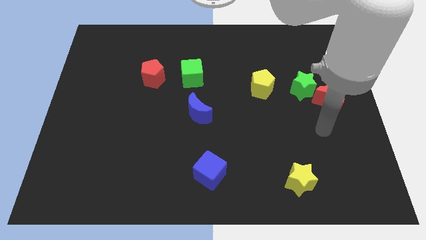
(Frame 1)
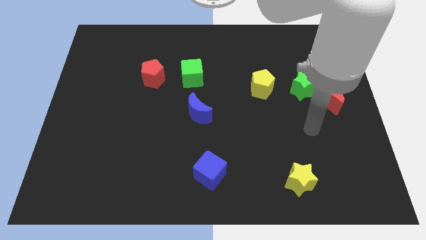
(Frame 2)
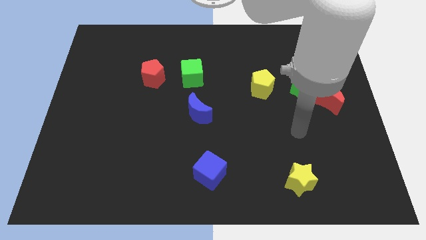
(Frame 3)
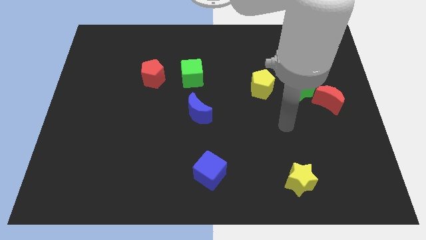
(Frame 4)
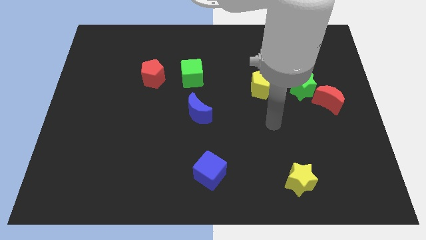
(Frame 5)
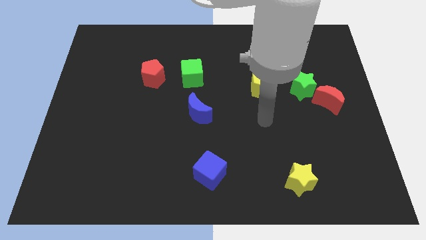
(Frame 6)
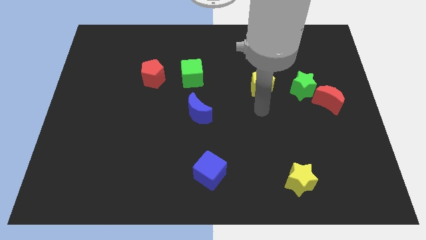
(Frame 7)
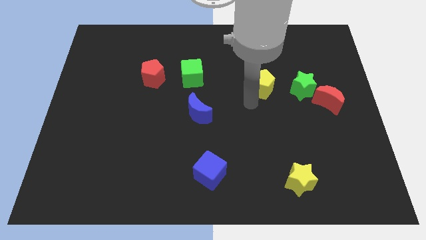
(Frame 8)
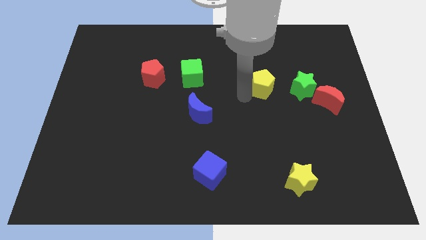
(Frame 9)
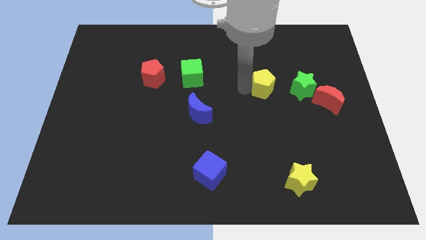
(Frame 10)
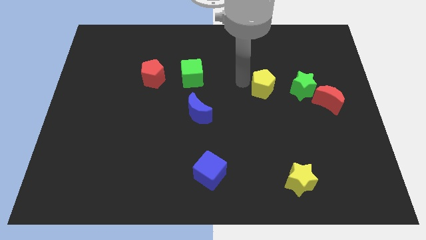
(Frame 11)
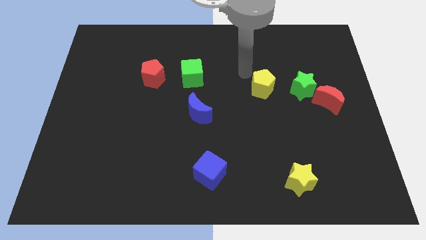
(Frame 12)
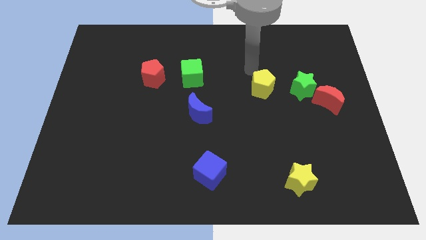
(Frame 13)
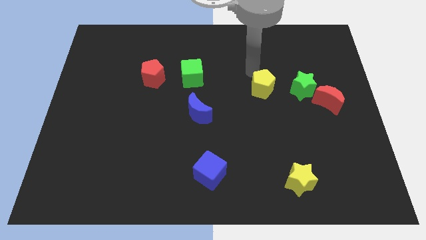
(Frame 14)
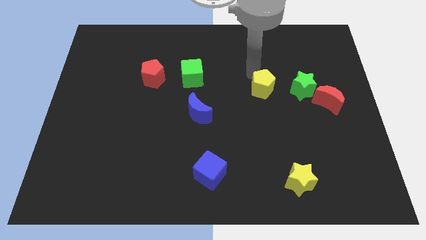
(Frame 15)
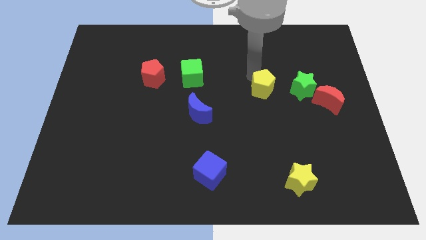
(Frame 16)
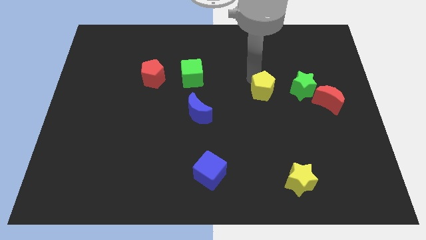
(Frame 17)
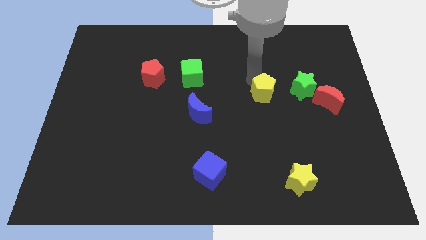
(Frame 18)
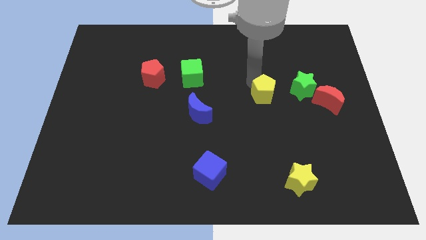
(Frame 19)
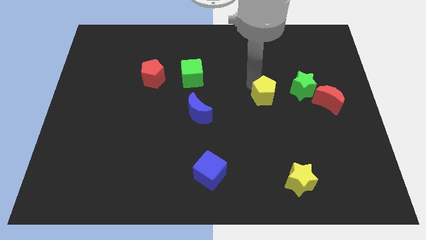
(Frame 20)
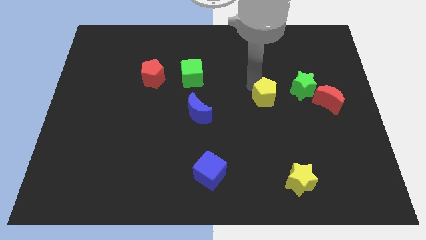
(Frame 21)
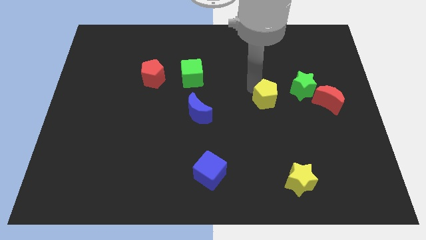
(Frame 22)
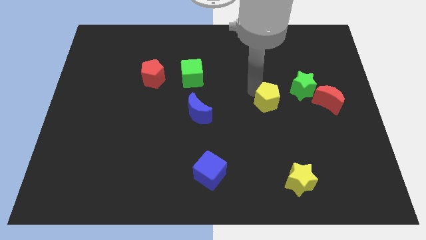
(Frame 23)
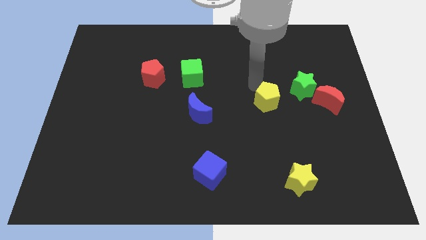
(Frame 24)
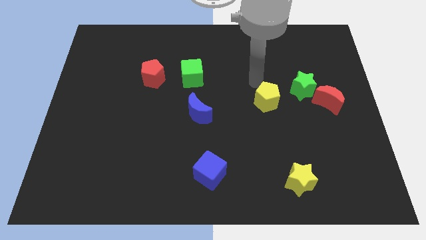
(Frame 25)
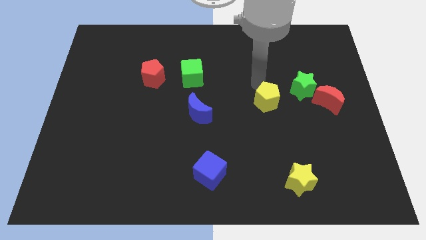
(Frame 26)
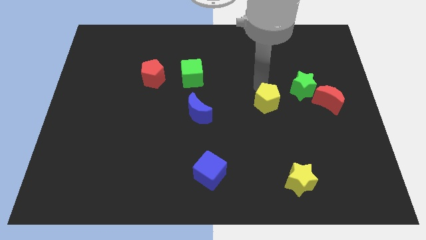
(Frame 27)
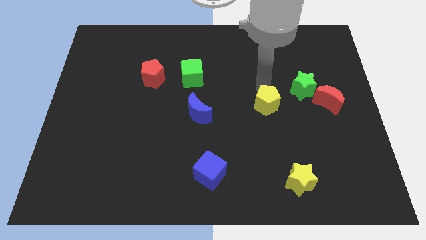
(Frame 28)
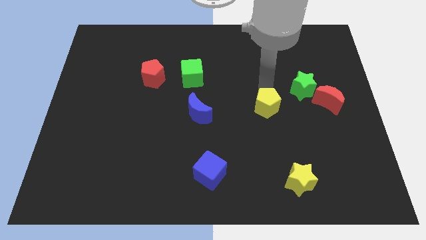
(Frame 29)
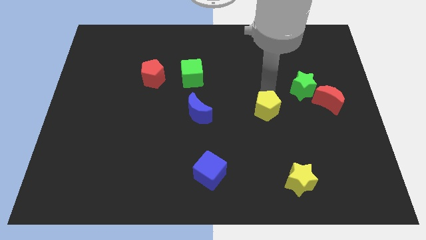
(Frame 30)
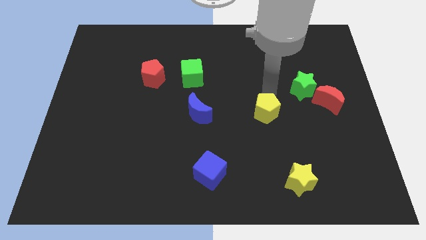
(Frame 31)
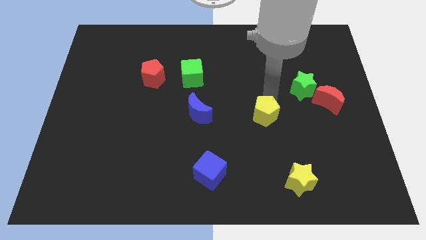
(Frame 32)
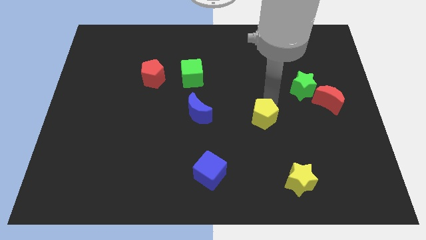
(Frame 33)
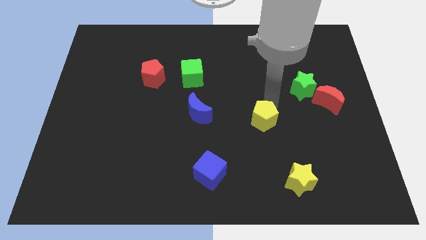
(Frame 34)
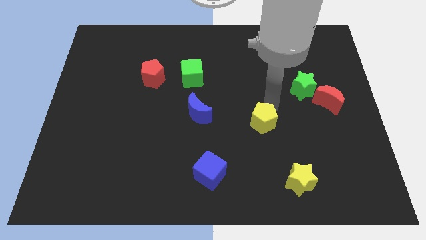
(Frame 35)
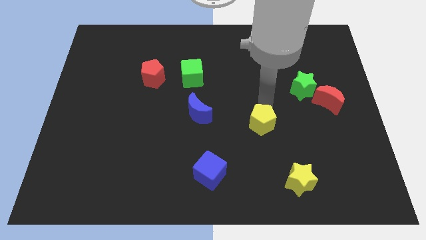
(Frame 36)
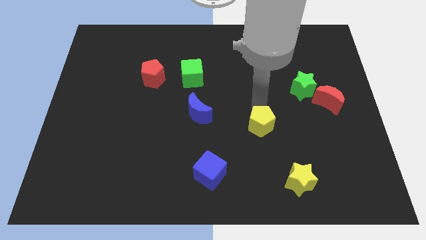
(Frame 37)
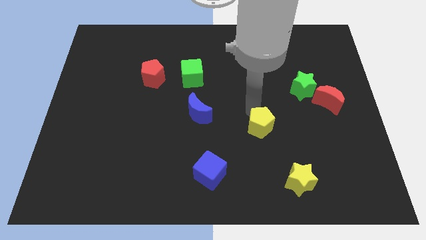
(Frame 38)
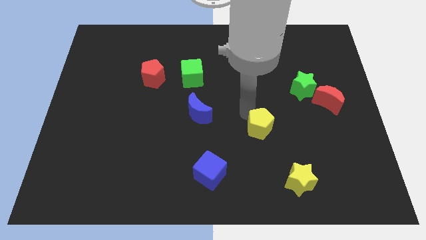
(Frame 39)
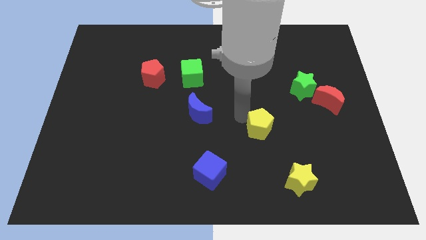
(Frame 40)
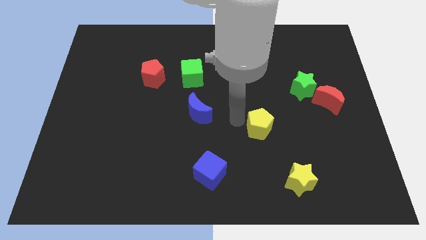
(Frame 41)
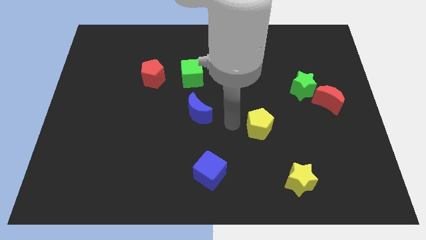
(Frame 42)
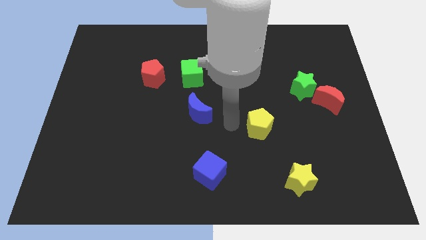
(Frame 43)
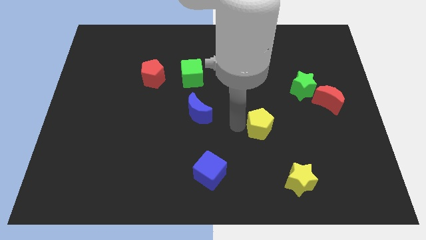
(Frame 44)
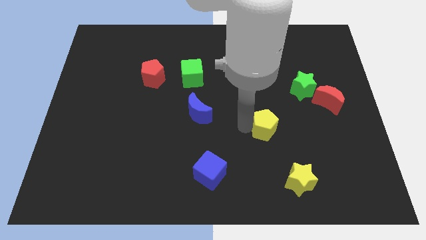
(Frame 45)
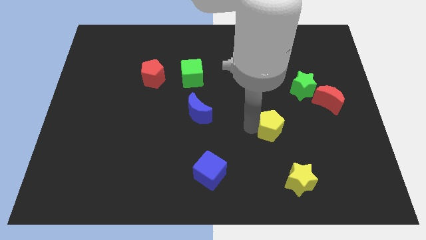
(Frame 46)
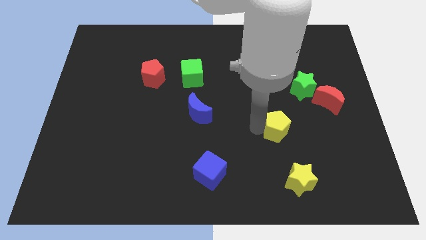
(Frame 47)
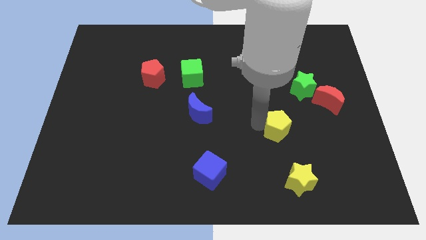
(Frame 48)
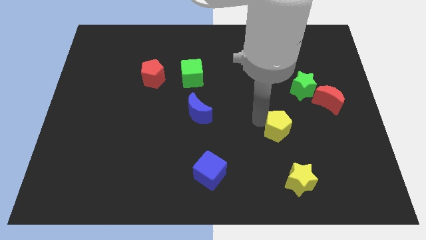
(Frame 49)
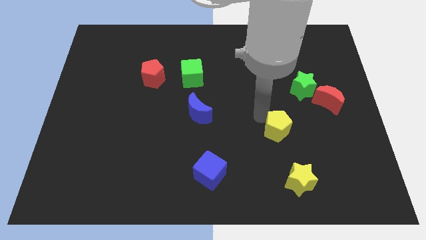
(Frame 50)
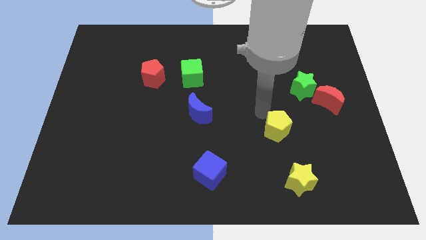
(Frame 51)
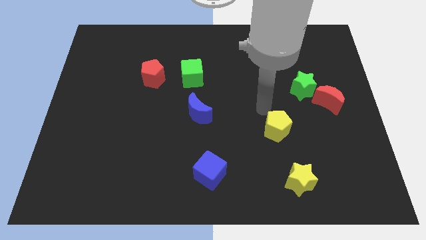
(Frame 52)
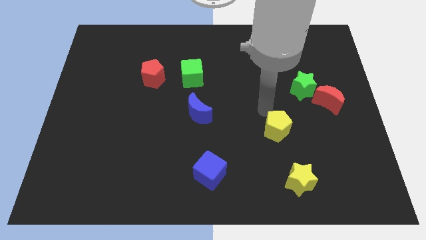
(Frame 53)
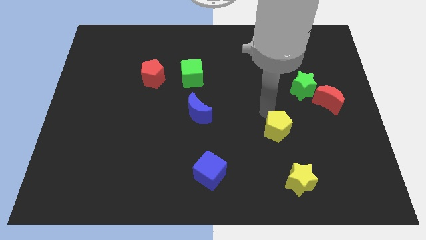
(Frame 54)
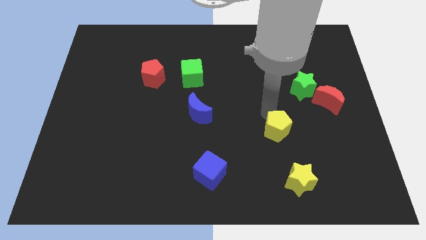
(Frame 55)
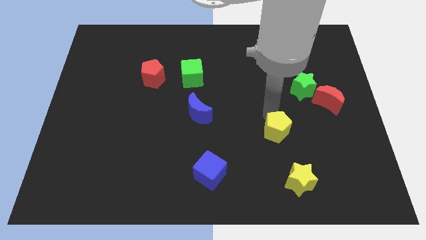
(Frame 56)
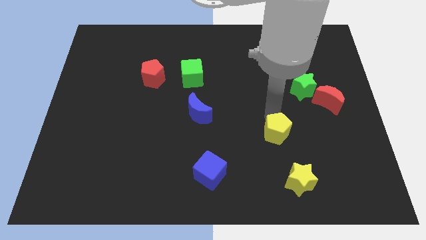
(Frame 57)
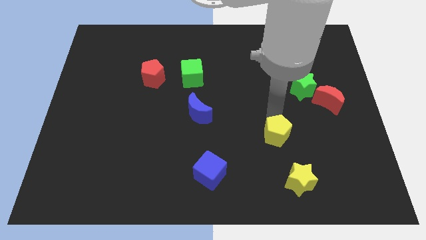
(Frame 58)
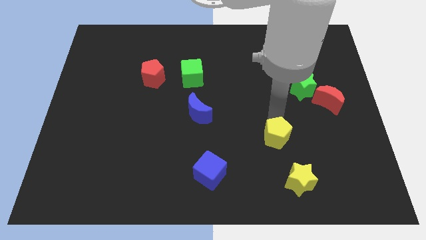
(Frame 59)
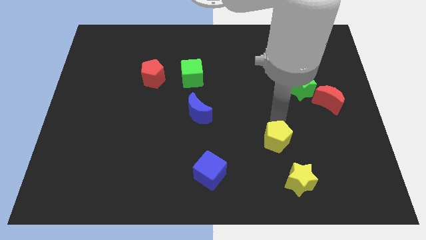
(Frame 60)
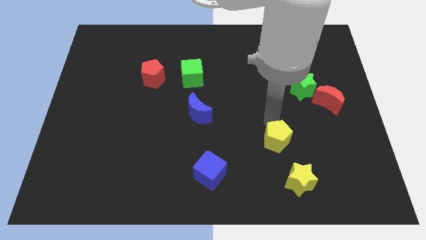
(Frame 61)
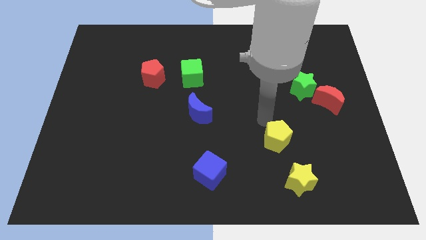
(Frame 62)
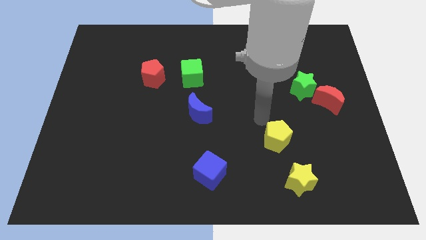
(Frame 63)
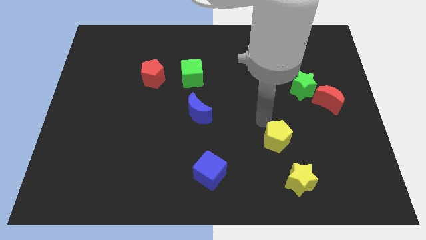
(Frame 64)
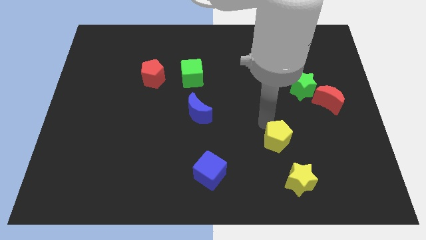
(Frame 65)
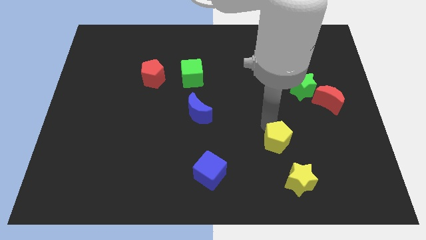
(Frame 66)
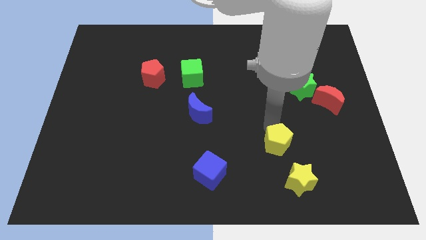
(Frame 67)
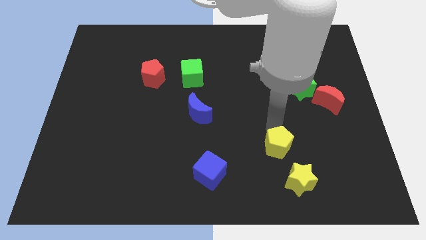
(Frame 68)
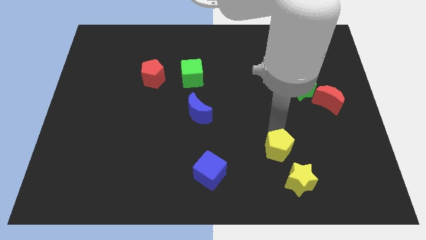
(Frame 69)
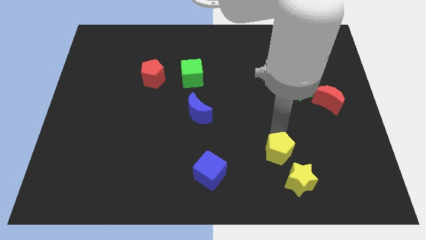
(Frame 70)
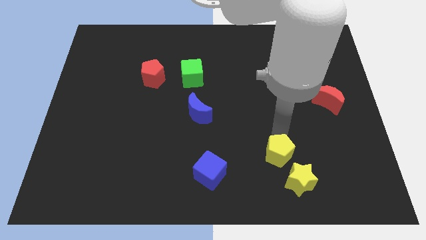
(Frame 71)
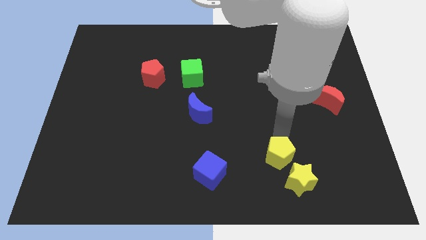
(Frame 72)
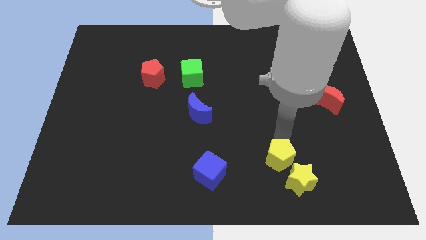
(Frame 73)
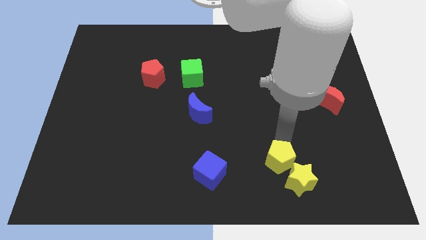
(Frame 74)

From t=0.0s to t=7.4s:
move the yellow pentagon to the yellow star

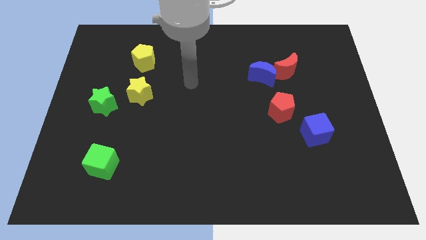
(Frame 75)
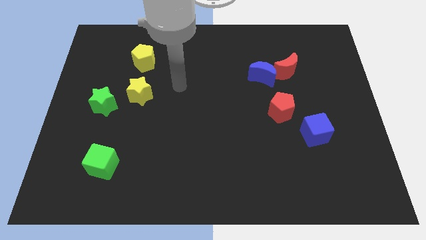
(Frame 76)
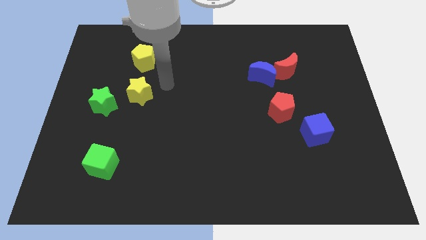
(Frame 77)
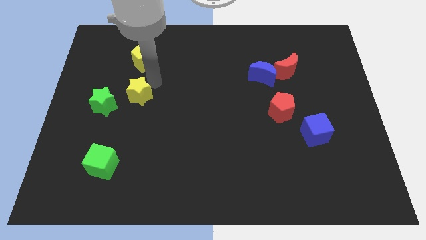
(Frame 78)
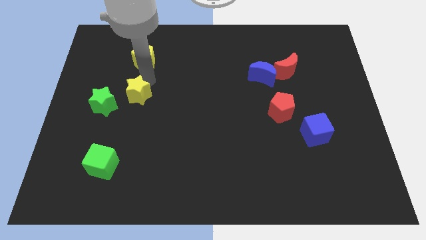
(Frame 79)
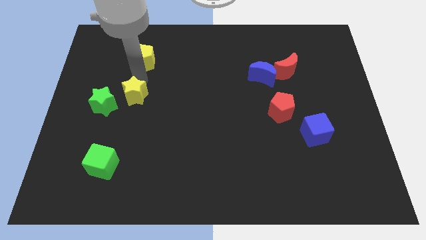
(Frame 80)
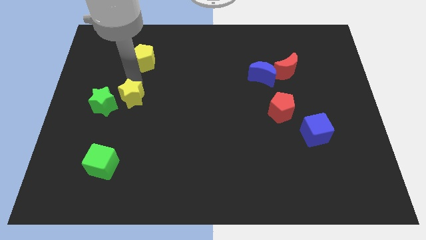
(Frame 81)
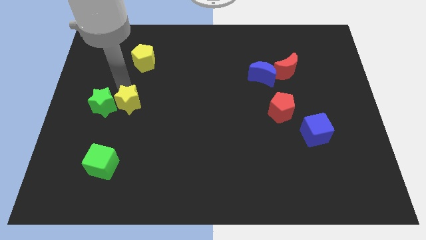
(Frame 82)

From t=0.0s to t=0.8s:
slide the green star towards the yellow star

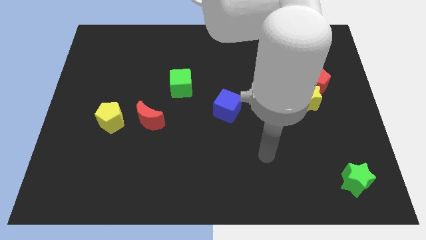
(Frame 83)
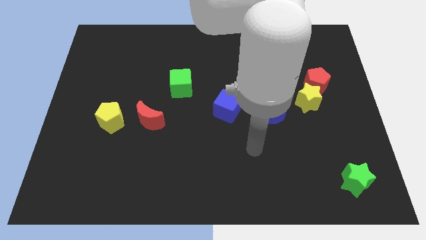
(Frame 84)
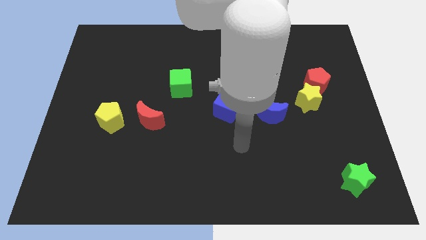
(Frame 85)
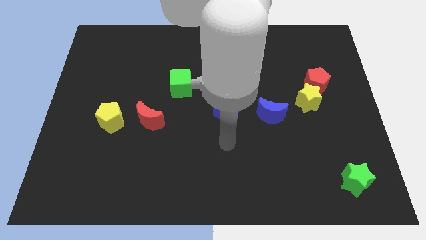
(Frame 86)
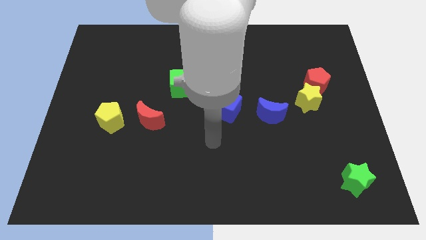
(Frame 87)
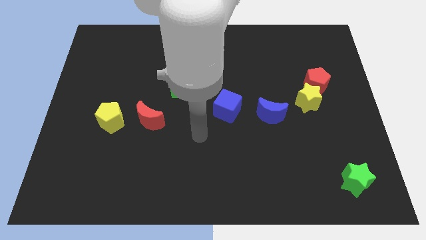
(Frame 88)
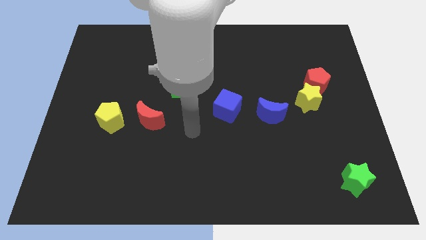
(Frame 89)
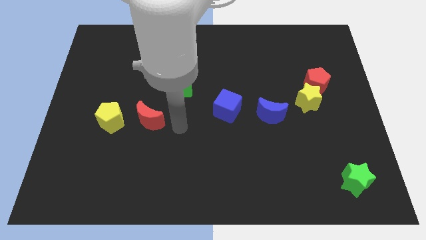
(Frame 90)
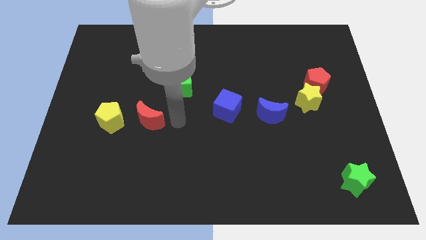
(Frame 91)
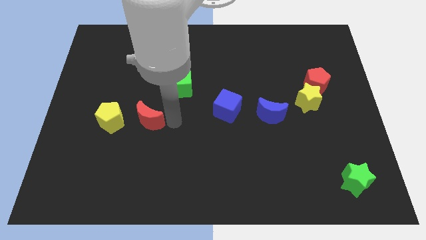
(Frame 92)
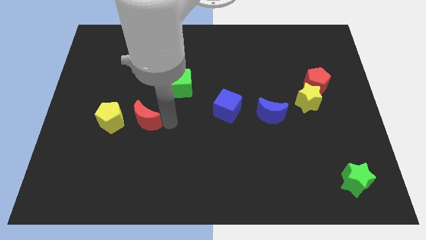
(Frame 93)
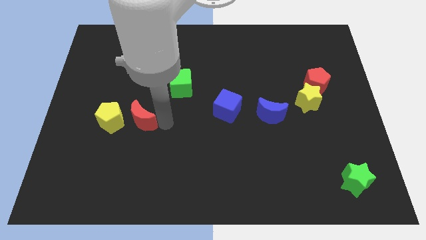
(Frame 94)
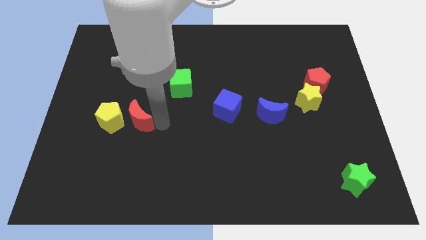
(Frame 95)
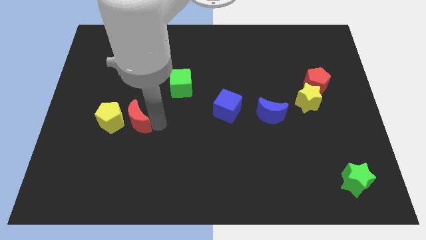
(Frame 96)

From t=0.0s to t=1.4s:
move the red moon towards the yellow pentagon
